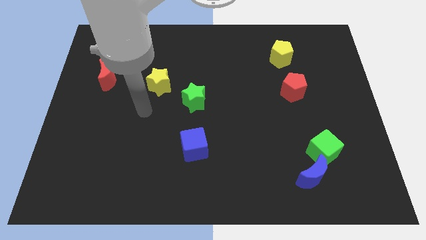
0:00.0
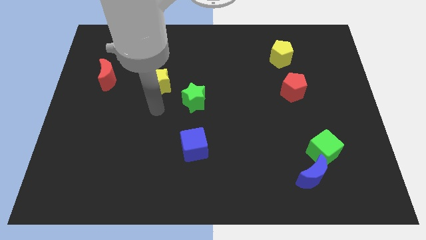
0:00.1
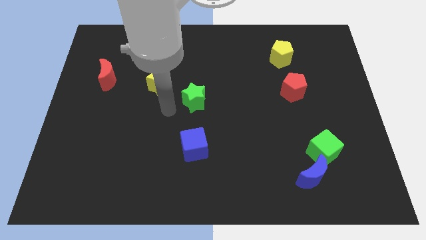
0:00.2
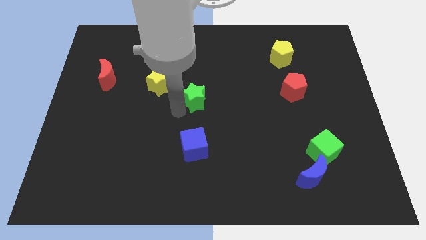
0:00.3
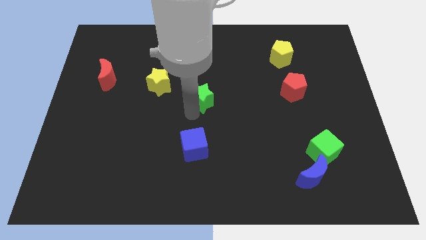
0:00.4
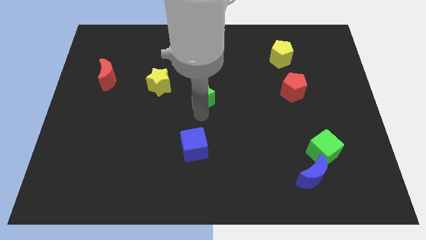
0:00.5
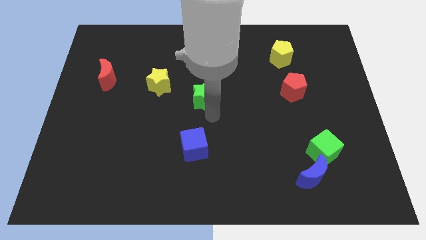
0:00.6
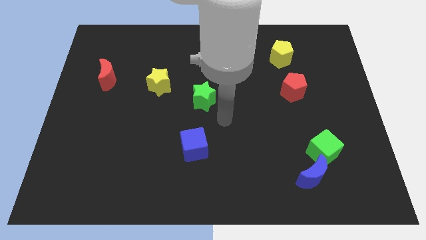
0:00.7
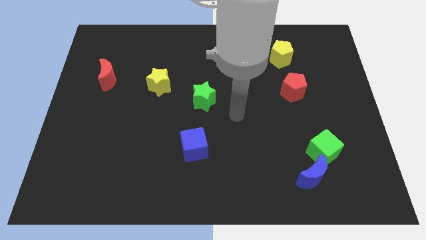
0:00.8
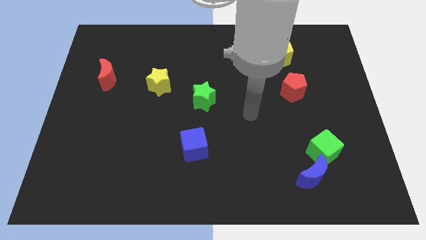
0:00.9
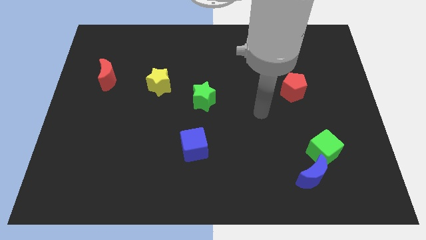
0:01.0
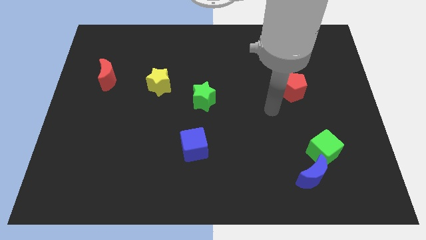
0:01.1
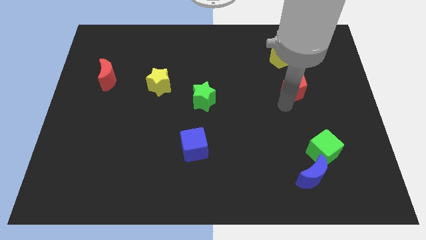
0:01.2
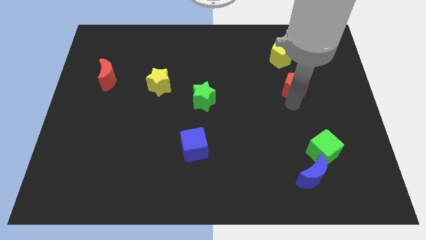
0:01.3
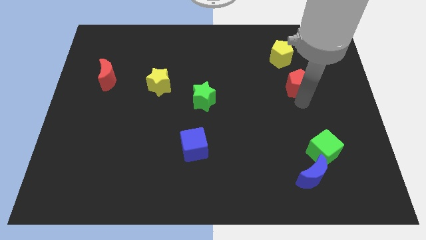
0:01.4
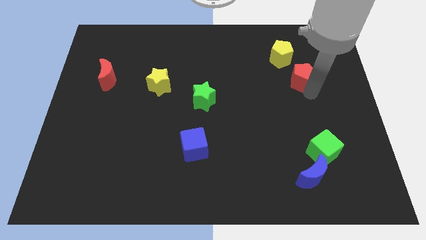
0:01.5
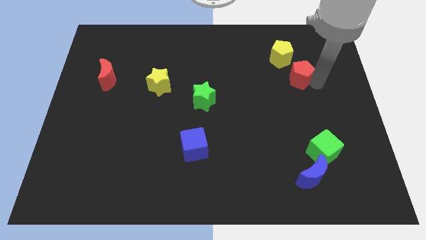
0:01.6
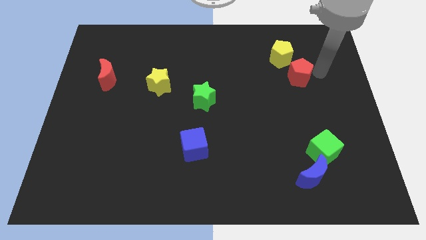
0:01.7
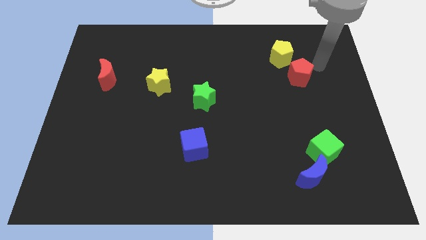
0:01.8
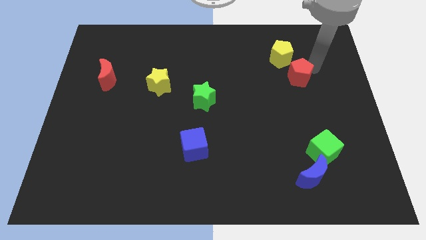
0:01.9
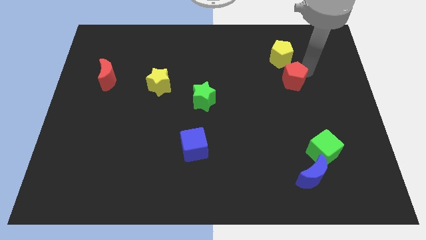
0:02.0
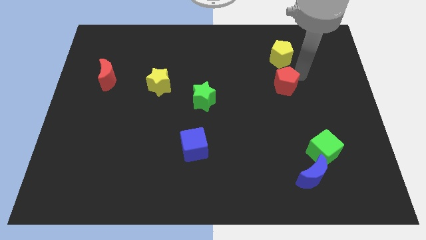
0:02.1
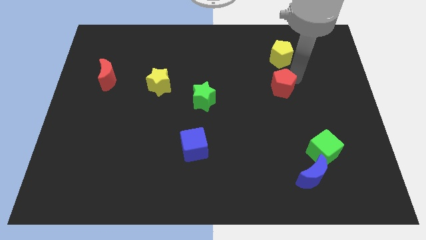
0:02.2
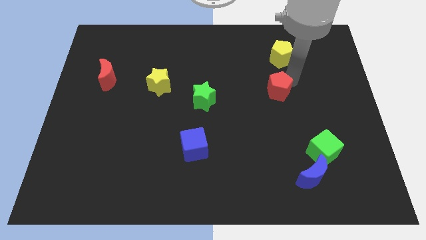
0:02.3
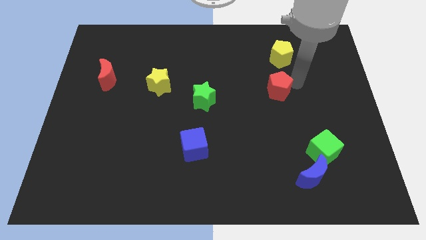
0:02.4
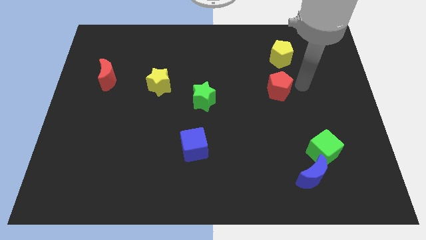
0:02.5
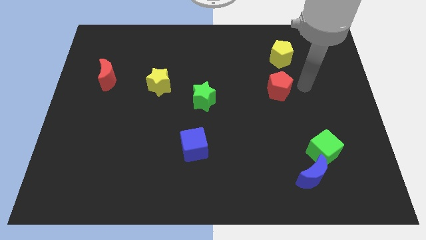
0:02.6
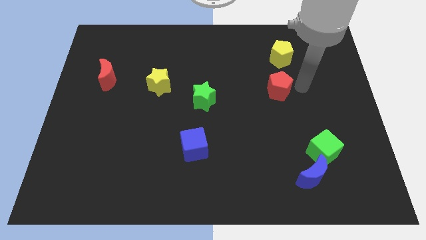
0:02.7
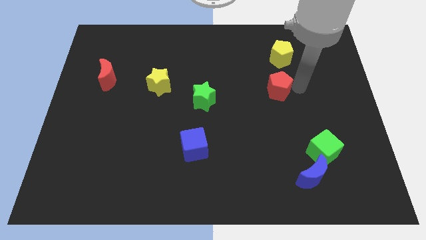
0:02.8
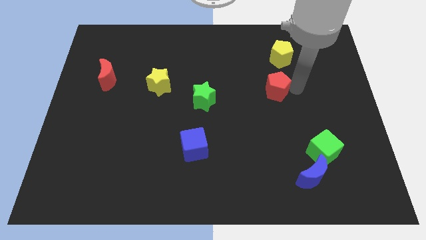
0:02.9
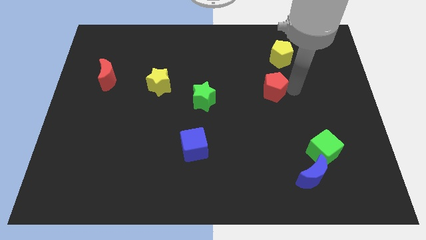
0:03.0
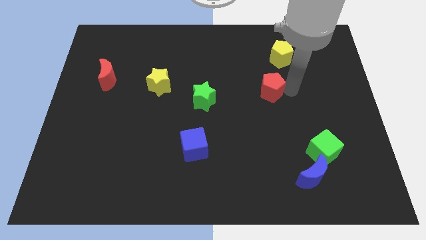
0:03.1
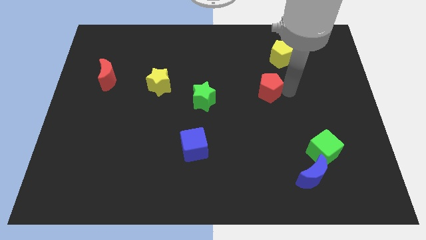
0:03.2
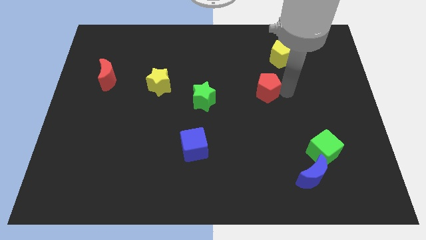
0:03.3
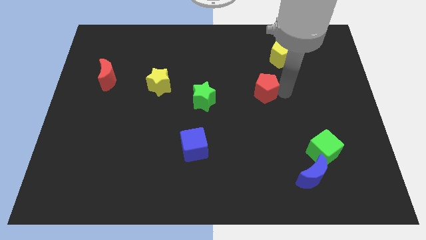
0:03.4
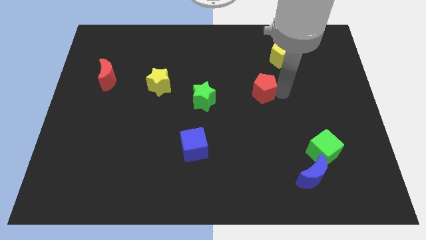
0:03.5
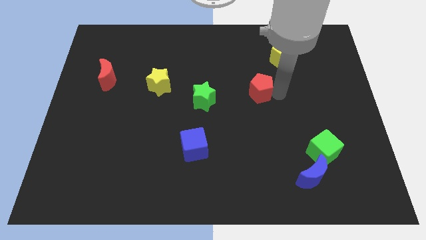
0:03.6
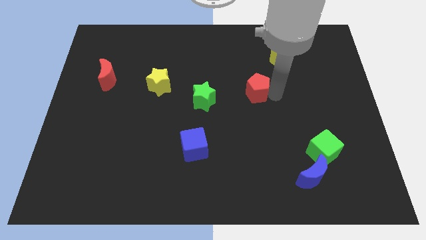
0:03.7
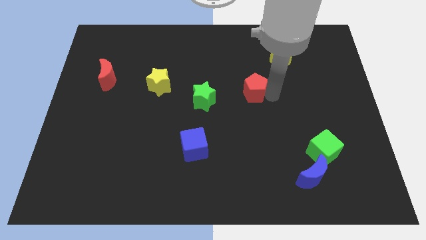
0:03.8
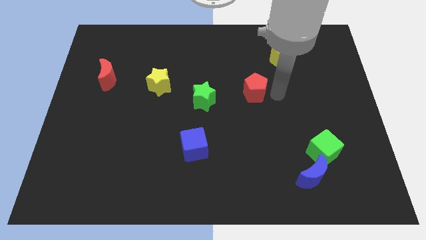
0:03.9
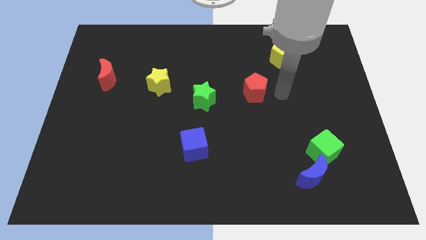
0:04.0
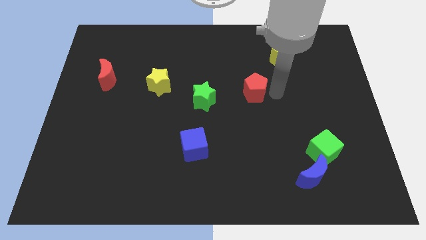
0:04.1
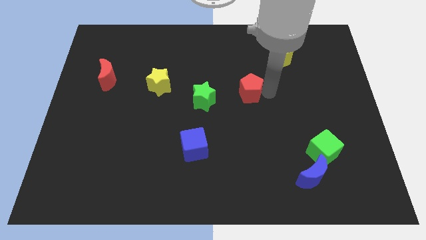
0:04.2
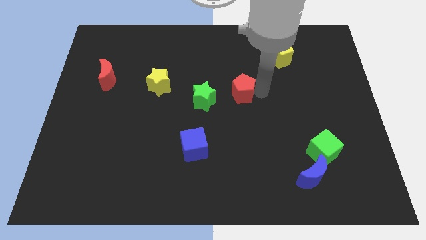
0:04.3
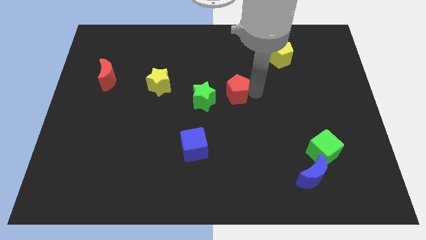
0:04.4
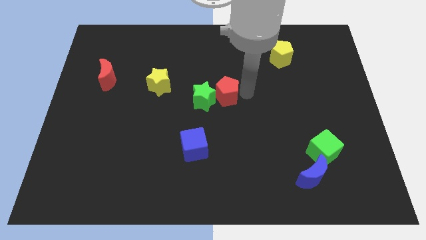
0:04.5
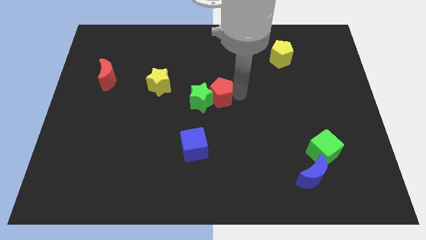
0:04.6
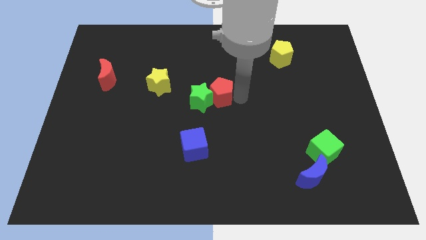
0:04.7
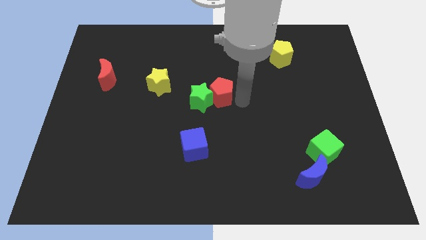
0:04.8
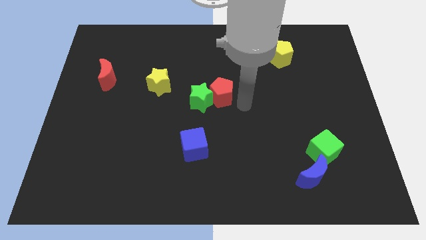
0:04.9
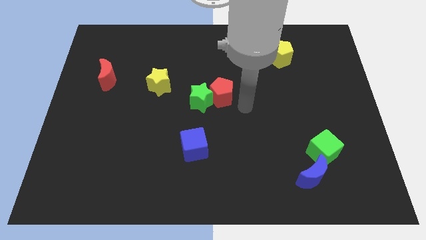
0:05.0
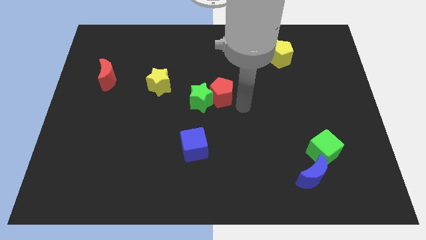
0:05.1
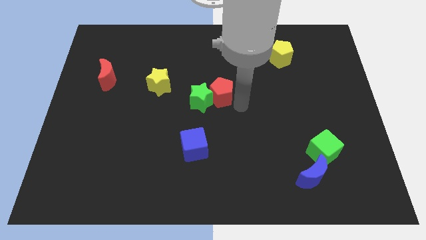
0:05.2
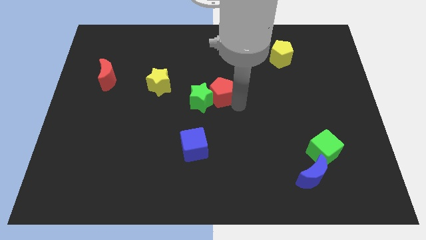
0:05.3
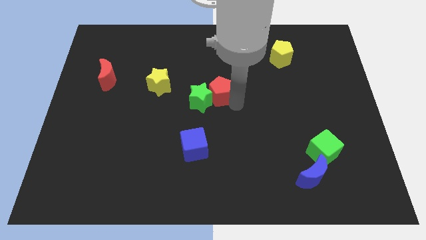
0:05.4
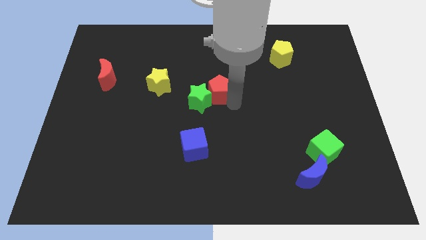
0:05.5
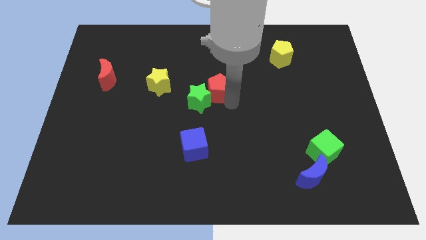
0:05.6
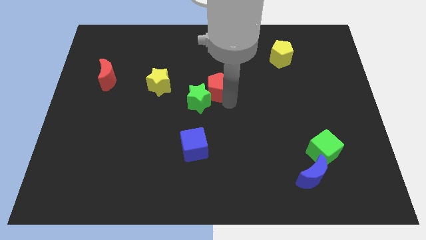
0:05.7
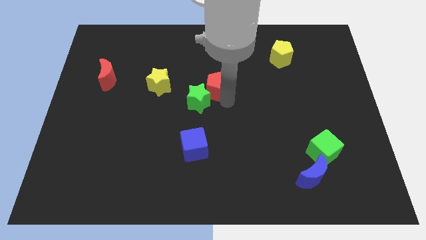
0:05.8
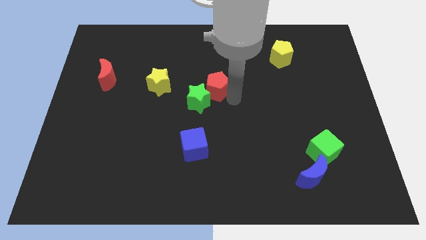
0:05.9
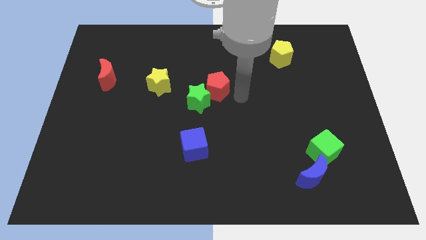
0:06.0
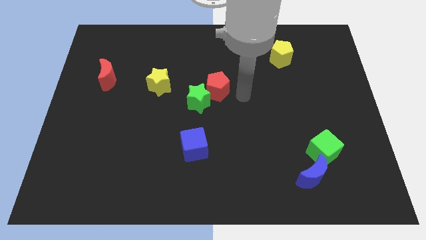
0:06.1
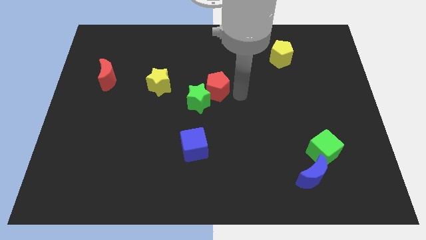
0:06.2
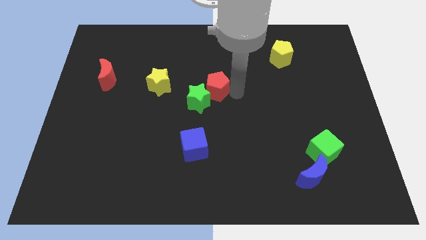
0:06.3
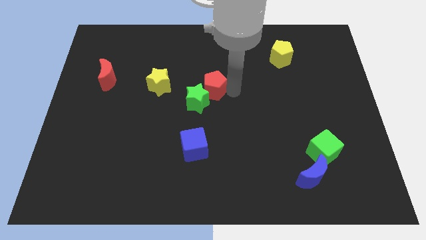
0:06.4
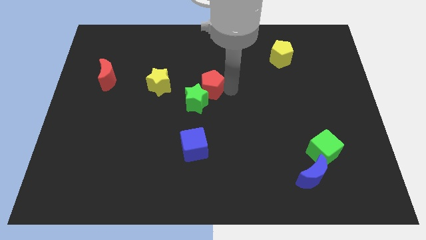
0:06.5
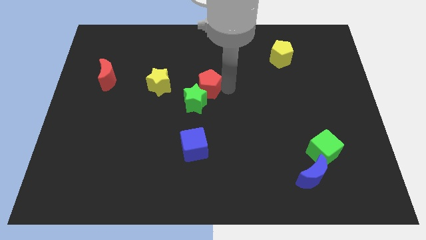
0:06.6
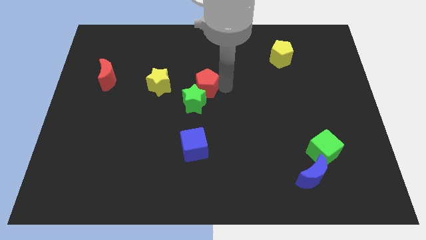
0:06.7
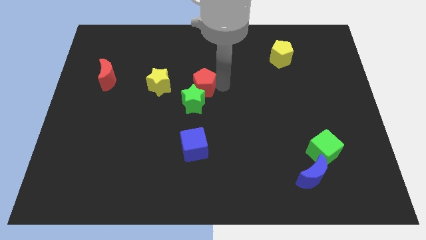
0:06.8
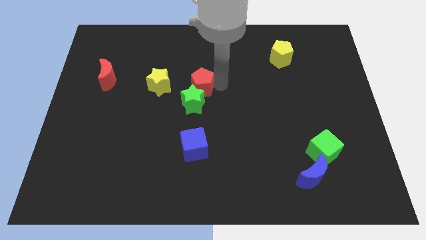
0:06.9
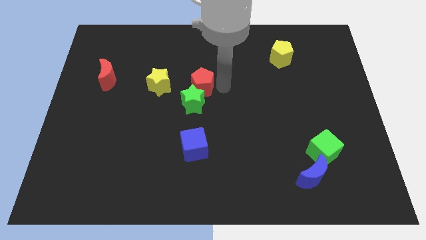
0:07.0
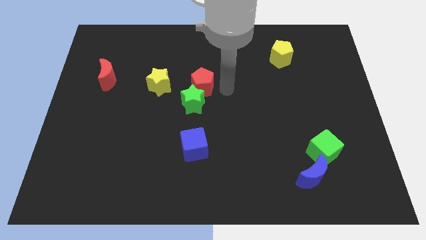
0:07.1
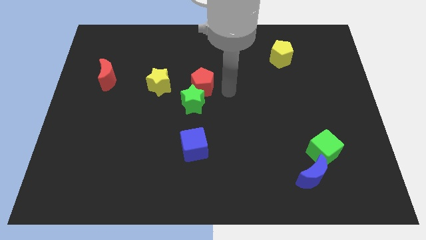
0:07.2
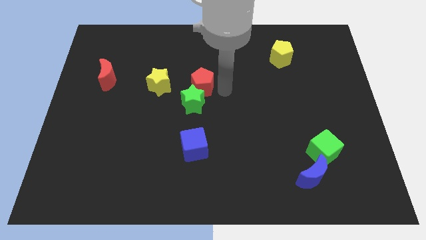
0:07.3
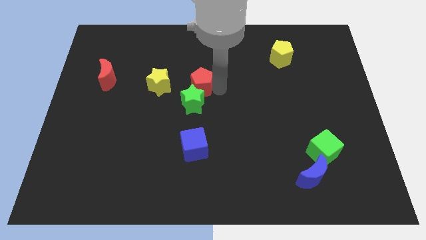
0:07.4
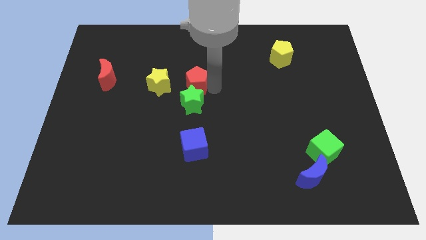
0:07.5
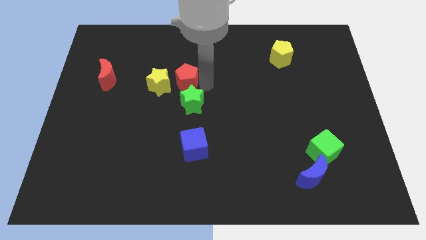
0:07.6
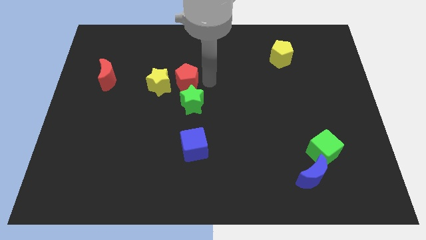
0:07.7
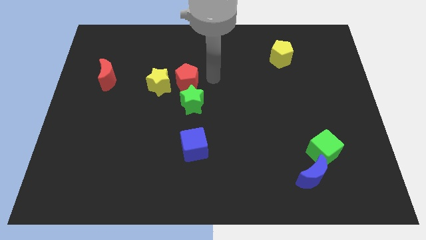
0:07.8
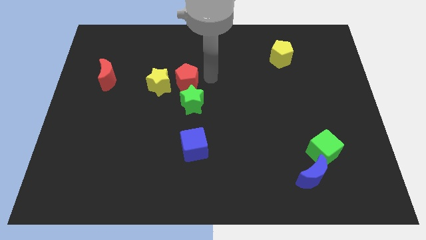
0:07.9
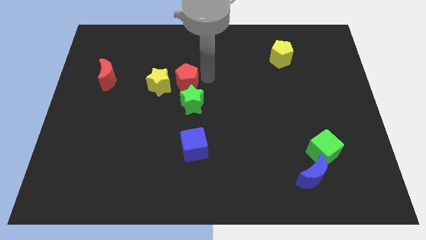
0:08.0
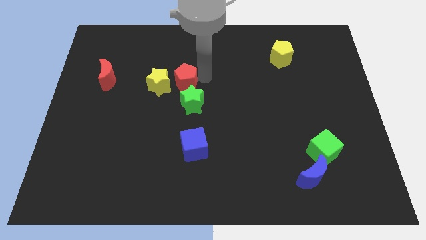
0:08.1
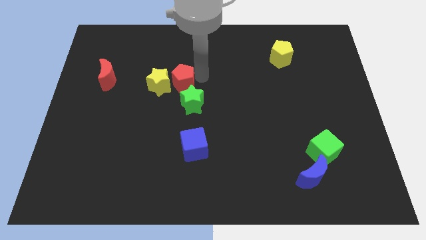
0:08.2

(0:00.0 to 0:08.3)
move the red pentagon next to the yellow star
